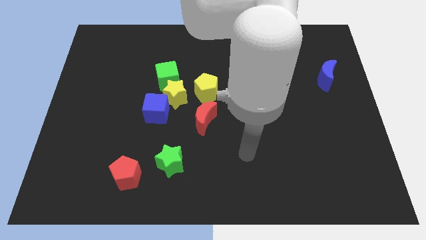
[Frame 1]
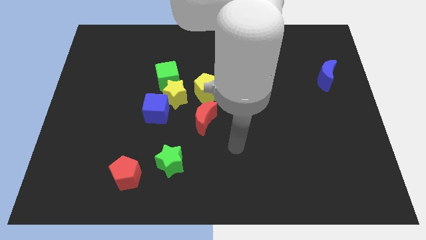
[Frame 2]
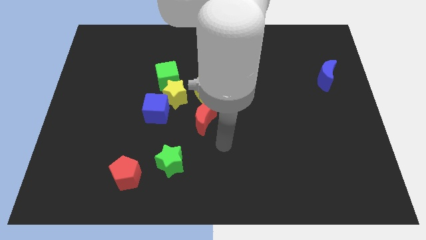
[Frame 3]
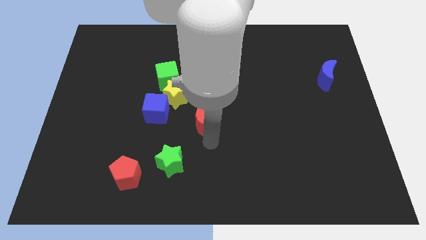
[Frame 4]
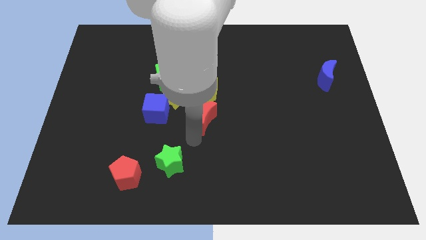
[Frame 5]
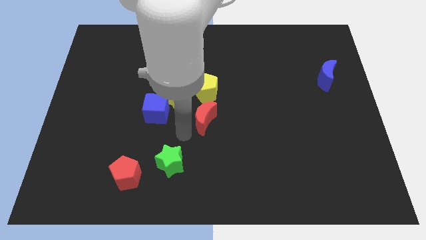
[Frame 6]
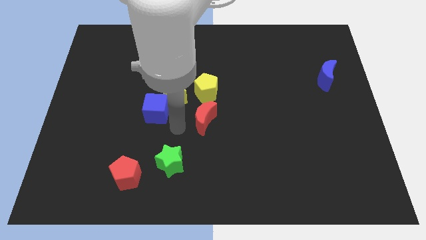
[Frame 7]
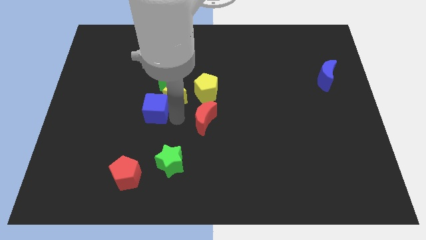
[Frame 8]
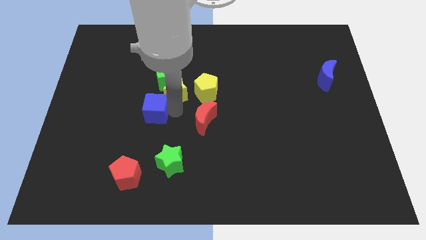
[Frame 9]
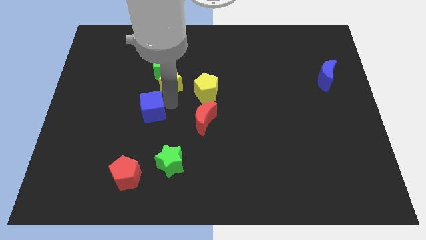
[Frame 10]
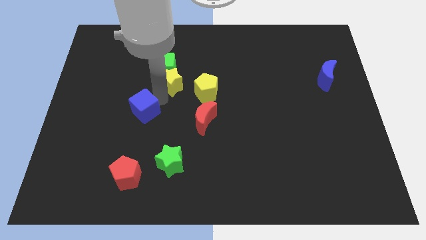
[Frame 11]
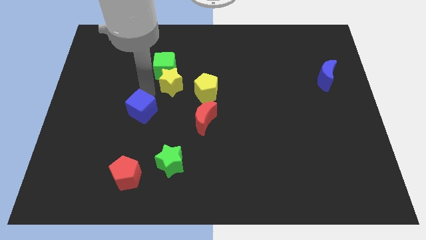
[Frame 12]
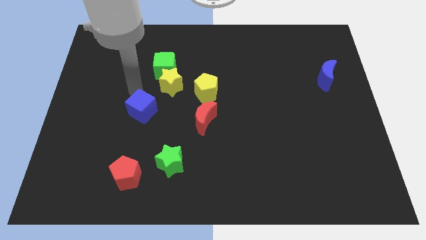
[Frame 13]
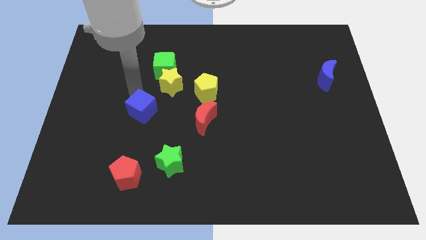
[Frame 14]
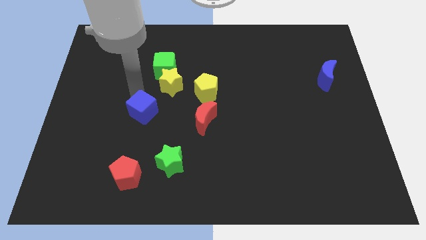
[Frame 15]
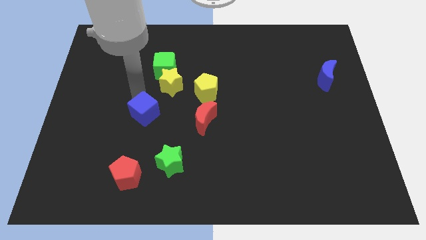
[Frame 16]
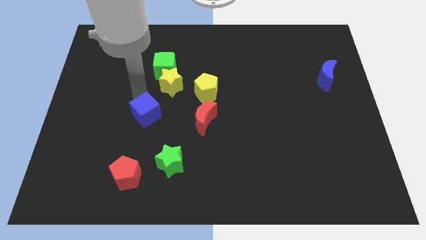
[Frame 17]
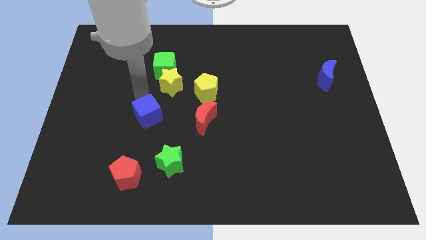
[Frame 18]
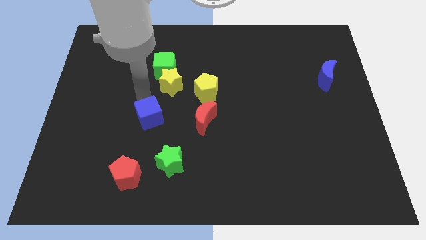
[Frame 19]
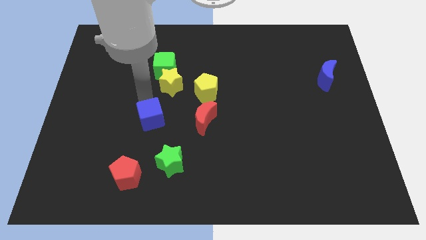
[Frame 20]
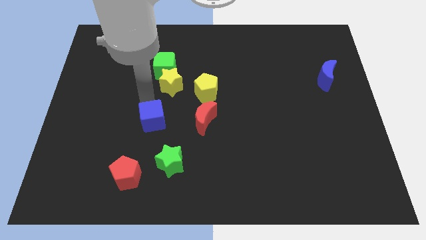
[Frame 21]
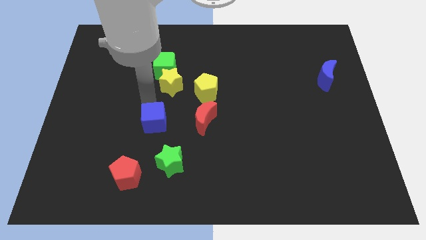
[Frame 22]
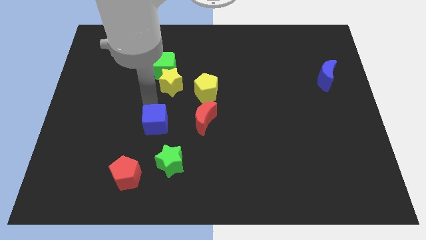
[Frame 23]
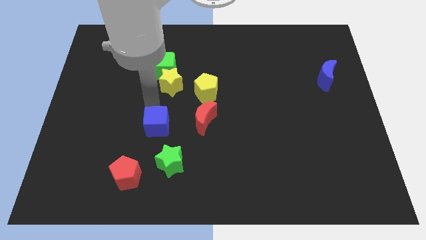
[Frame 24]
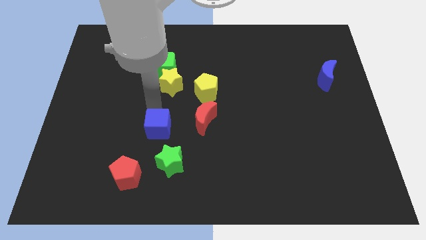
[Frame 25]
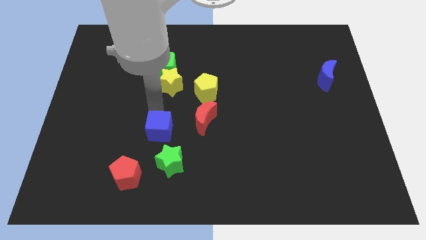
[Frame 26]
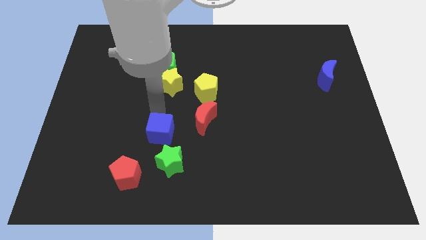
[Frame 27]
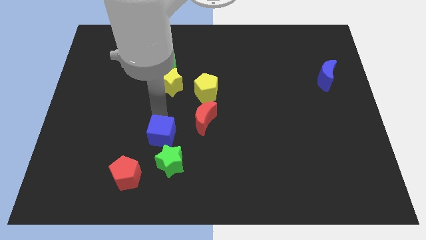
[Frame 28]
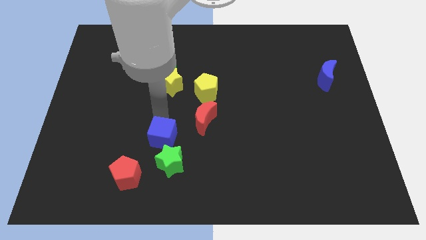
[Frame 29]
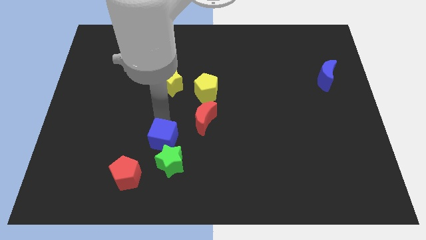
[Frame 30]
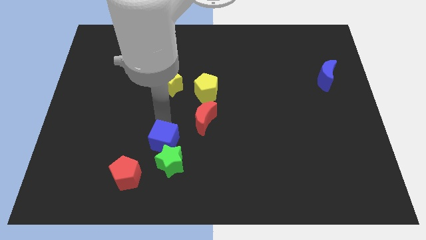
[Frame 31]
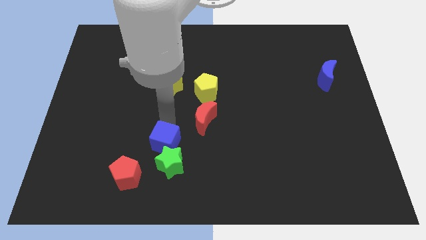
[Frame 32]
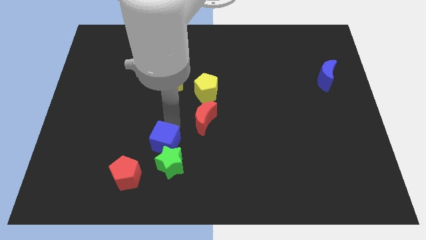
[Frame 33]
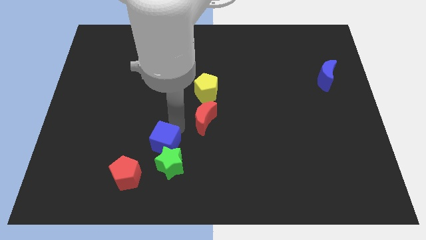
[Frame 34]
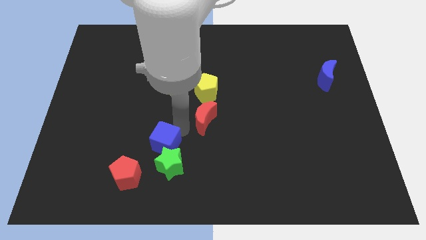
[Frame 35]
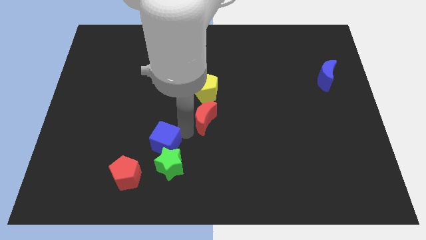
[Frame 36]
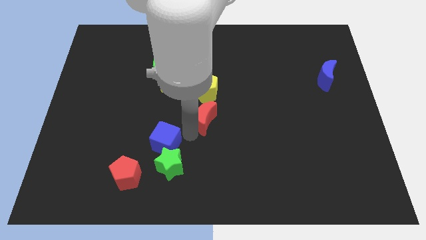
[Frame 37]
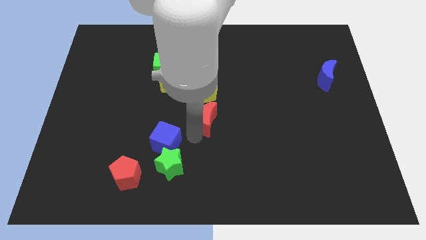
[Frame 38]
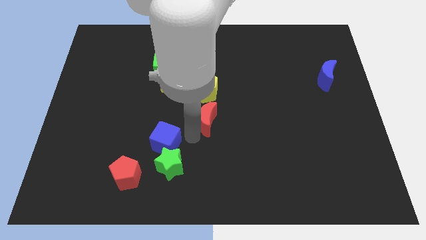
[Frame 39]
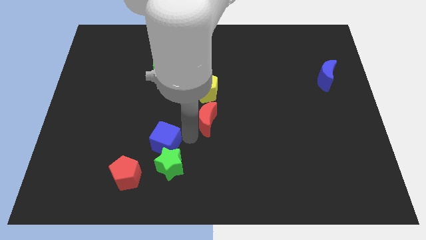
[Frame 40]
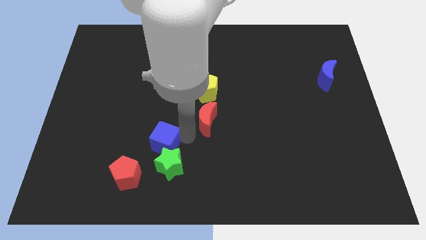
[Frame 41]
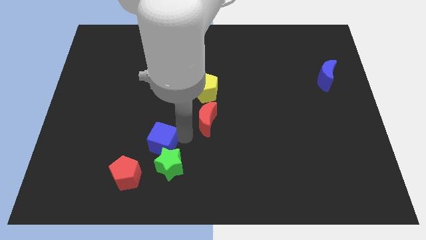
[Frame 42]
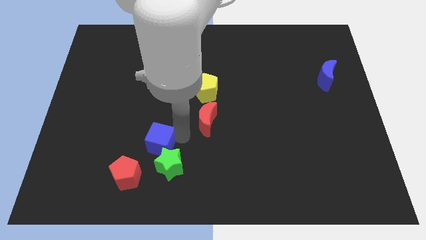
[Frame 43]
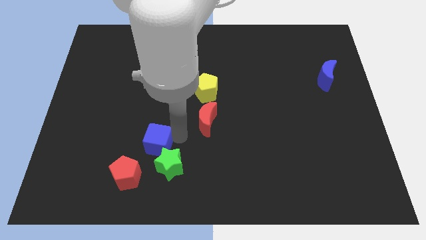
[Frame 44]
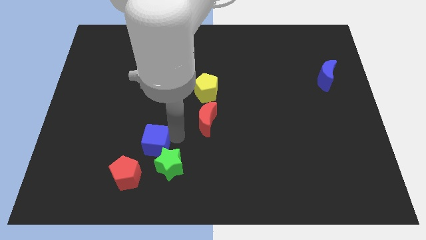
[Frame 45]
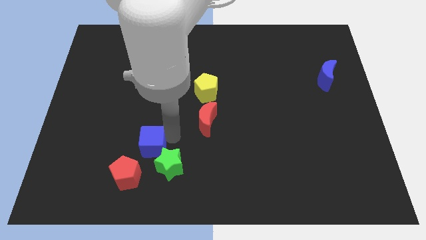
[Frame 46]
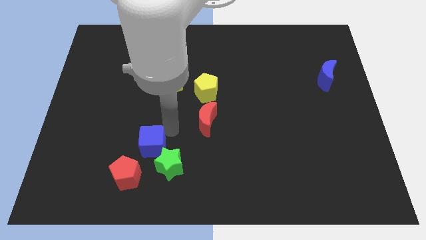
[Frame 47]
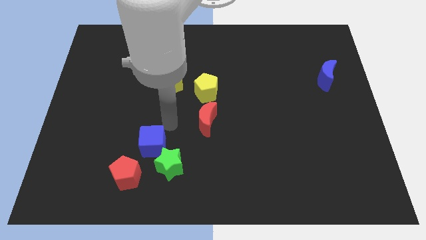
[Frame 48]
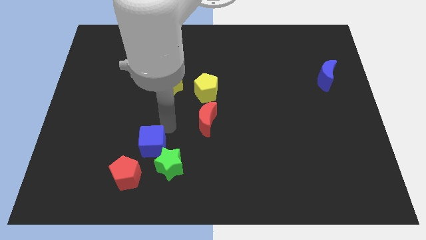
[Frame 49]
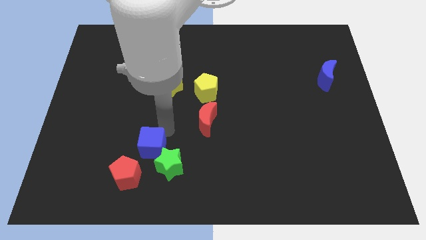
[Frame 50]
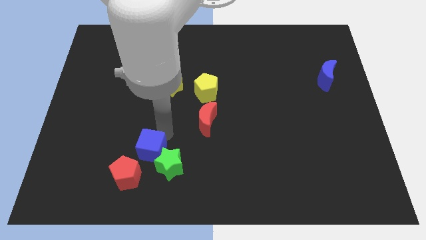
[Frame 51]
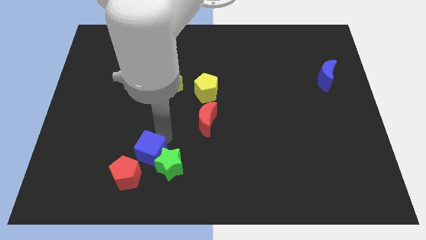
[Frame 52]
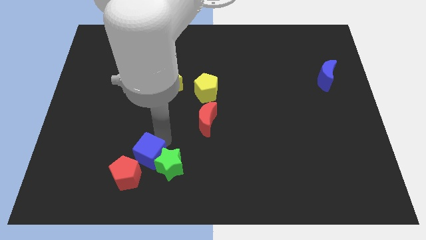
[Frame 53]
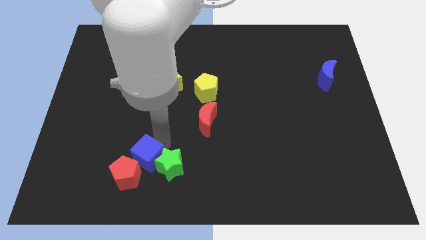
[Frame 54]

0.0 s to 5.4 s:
move the blue cube towards the red pentagon

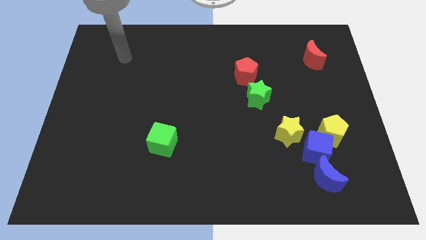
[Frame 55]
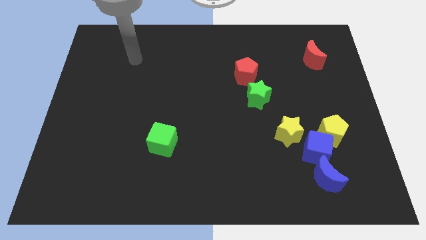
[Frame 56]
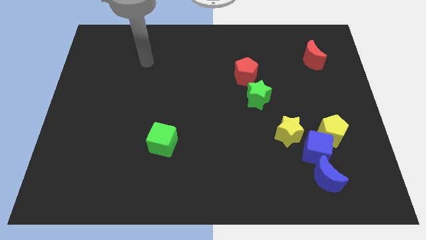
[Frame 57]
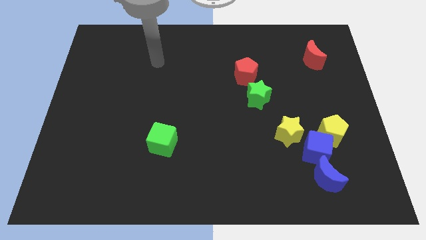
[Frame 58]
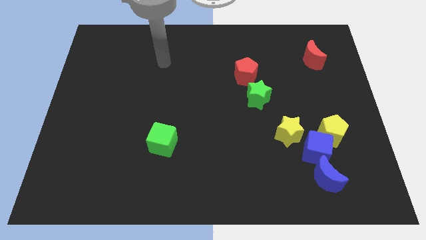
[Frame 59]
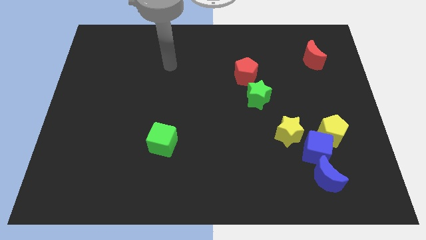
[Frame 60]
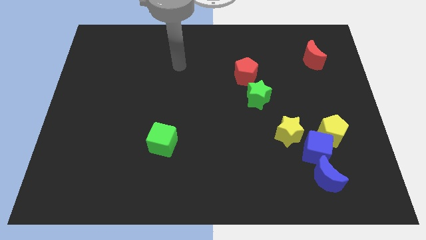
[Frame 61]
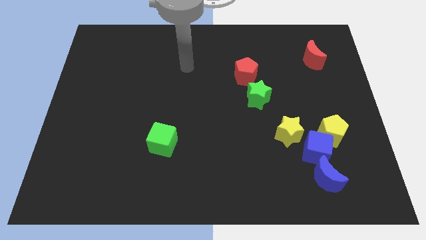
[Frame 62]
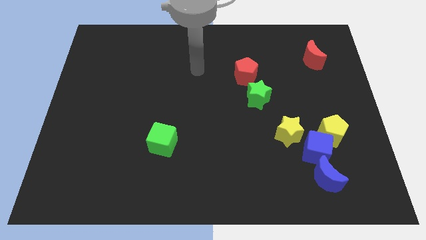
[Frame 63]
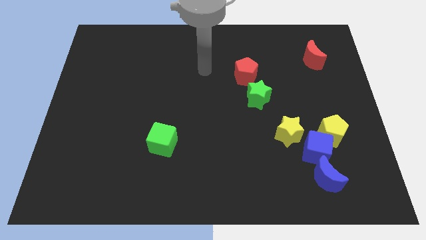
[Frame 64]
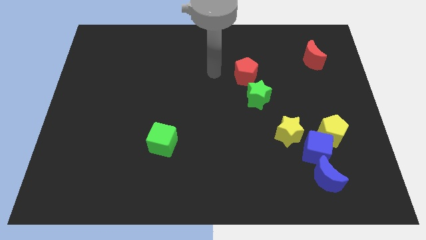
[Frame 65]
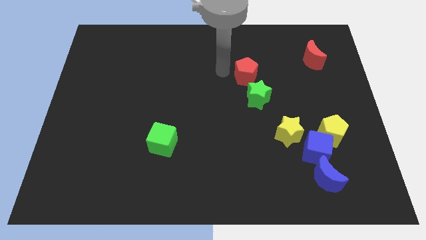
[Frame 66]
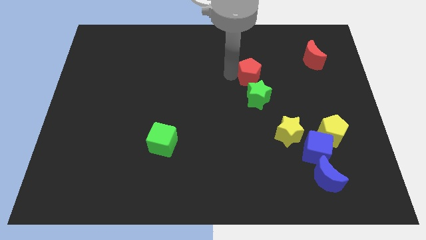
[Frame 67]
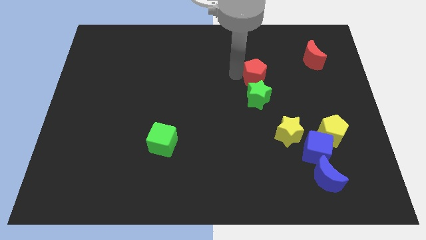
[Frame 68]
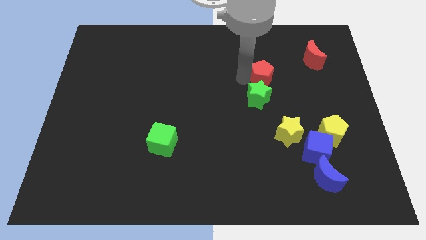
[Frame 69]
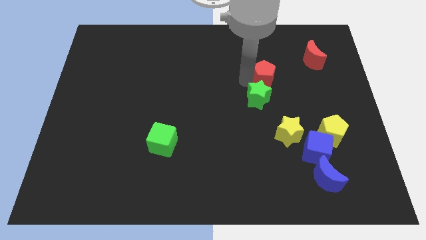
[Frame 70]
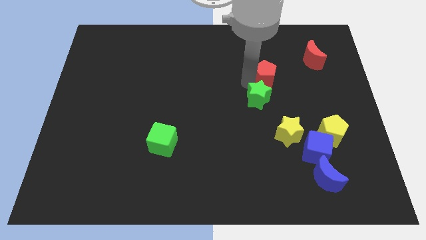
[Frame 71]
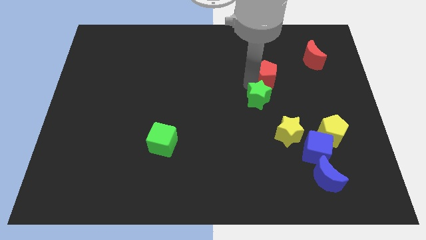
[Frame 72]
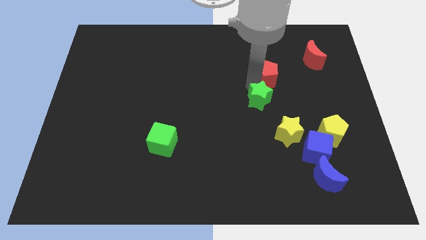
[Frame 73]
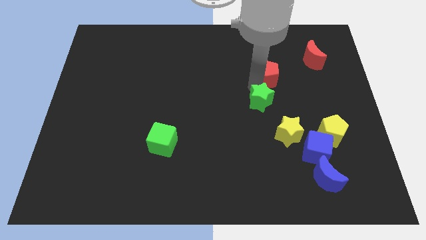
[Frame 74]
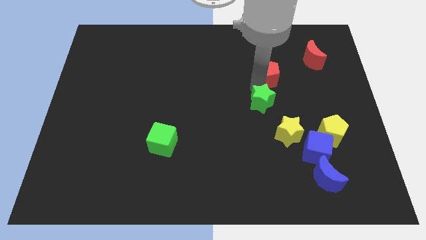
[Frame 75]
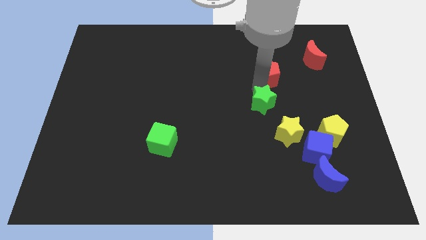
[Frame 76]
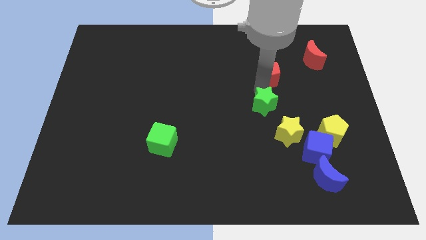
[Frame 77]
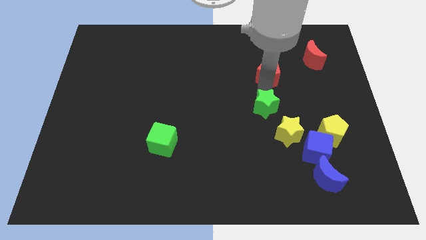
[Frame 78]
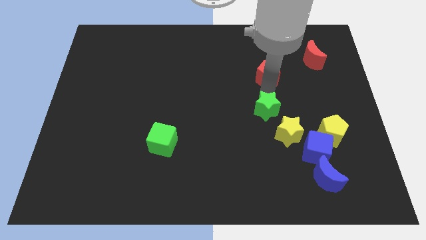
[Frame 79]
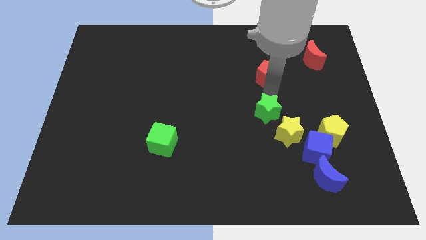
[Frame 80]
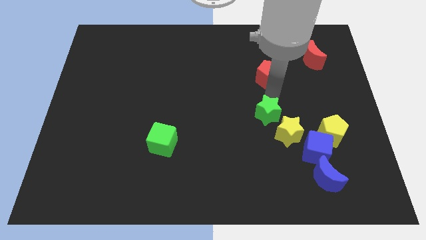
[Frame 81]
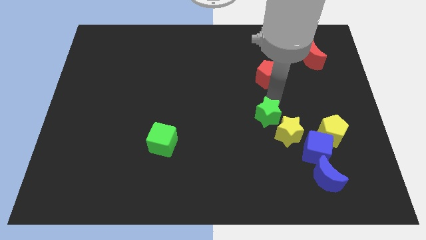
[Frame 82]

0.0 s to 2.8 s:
move the green star close to the yellow star
